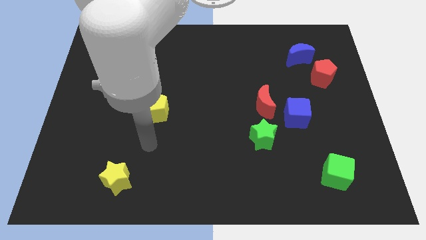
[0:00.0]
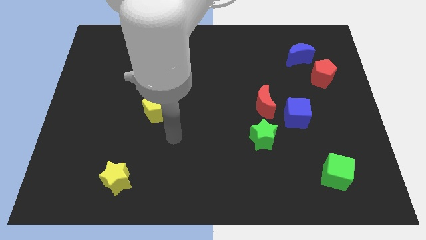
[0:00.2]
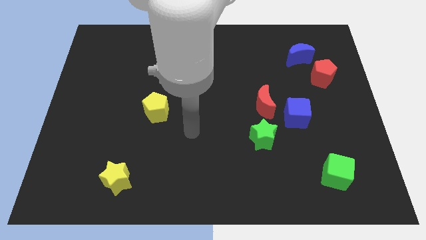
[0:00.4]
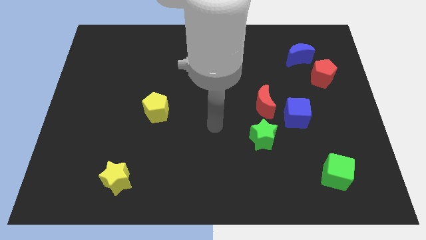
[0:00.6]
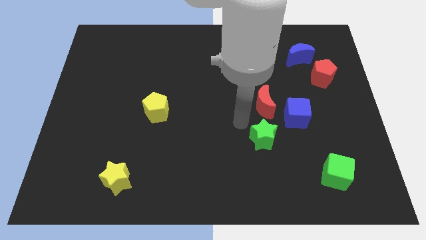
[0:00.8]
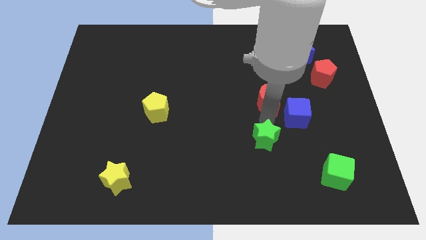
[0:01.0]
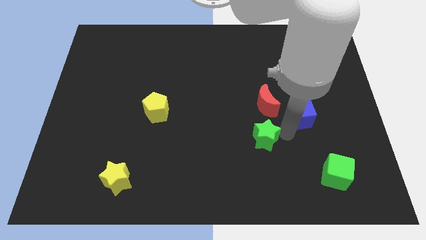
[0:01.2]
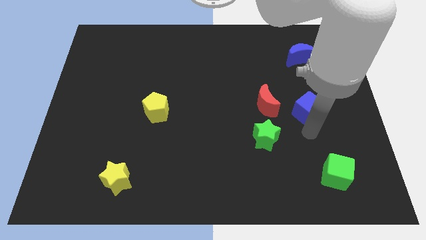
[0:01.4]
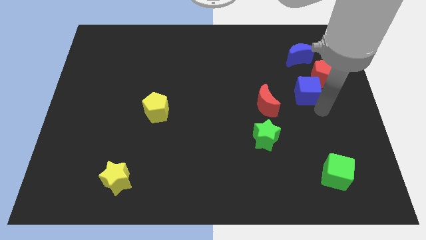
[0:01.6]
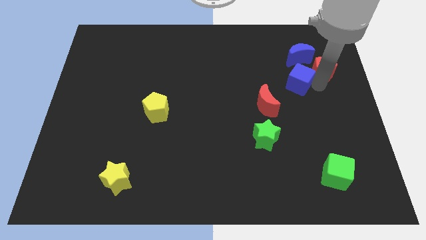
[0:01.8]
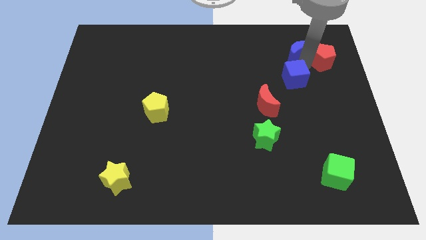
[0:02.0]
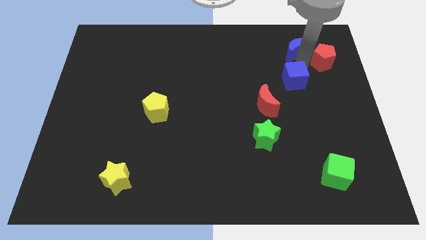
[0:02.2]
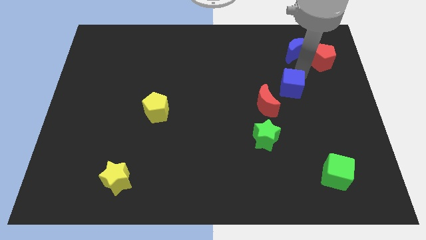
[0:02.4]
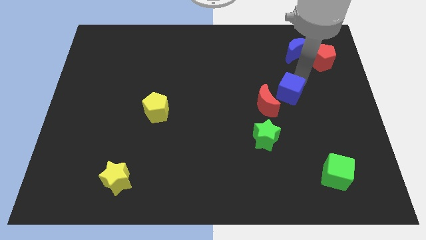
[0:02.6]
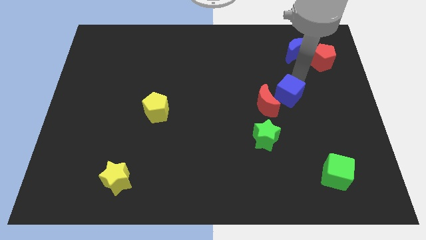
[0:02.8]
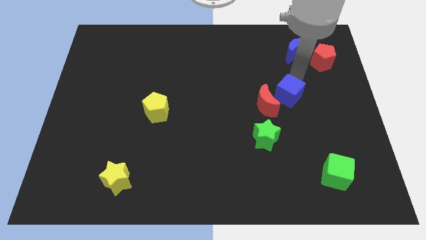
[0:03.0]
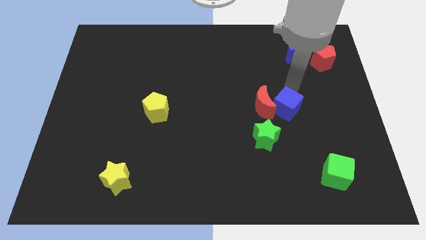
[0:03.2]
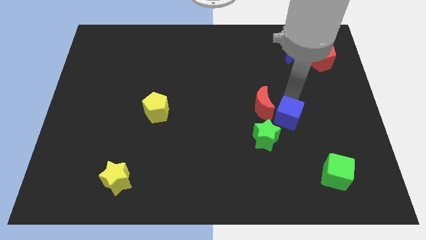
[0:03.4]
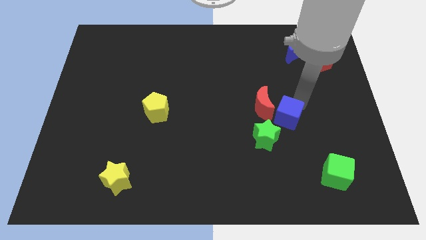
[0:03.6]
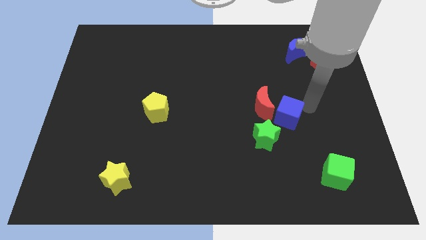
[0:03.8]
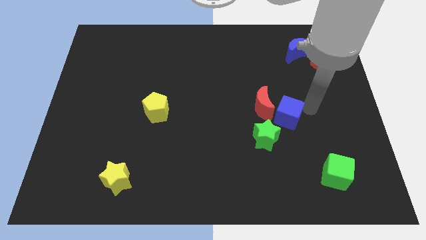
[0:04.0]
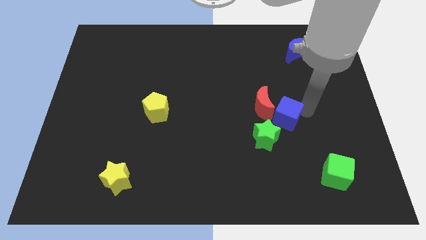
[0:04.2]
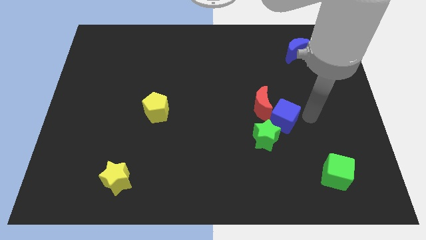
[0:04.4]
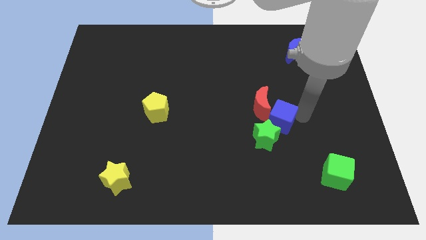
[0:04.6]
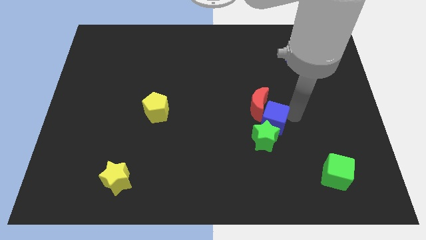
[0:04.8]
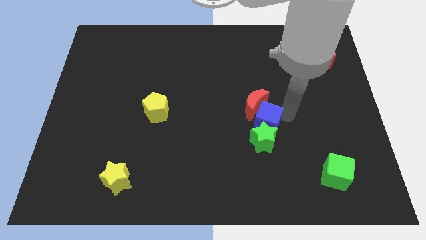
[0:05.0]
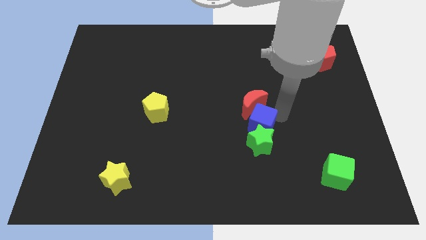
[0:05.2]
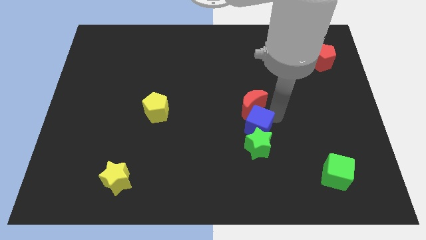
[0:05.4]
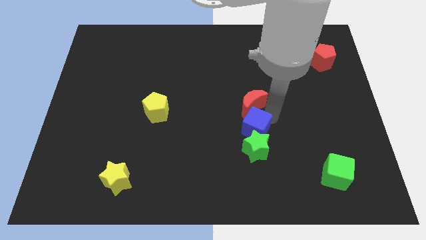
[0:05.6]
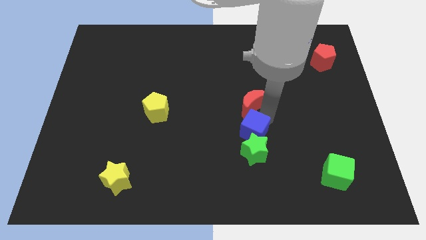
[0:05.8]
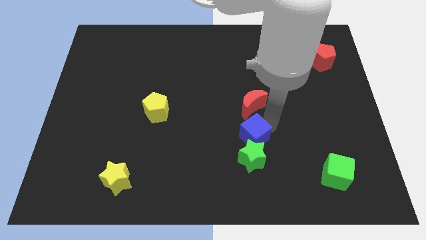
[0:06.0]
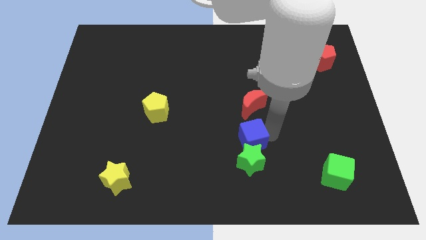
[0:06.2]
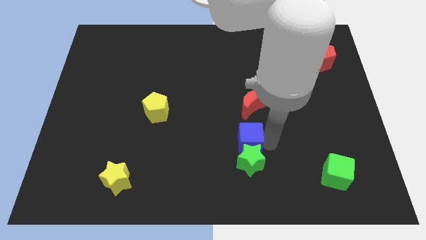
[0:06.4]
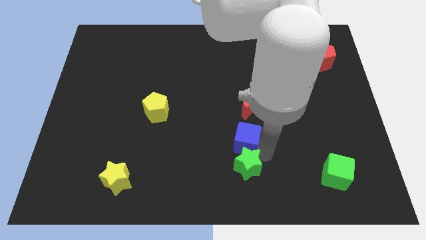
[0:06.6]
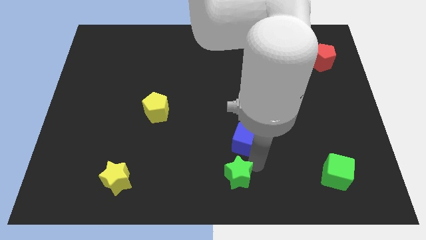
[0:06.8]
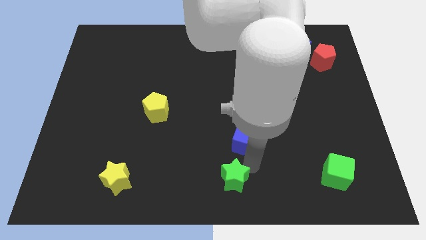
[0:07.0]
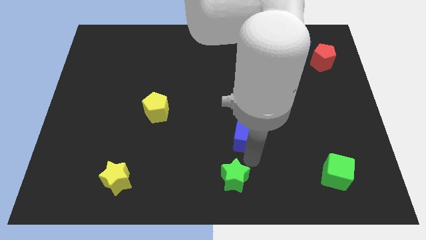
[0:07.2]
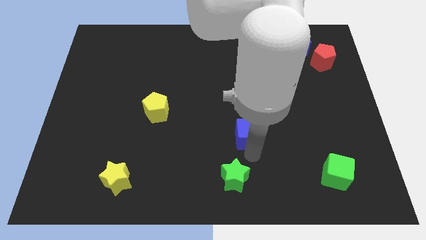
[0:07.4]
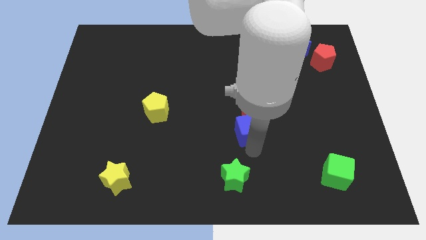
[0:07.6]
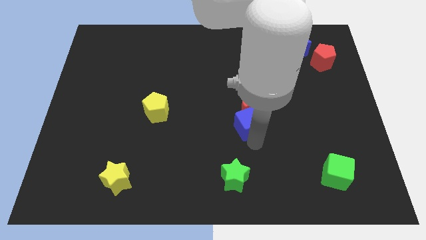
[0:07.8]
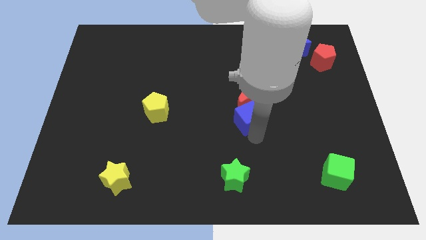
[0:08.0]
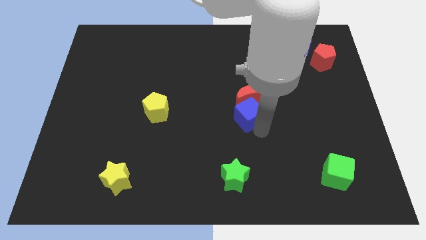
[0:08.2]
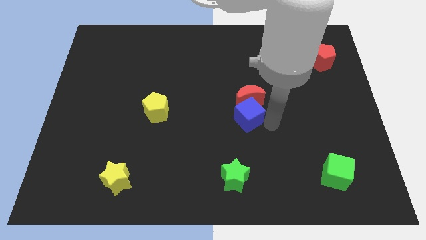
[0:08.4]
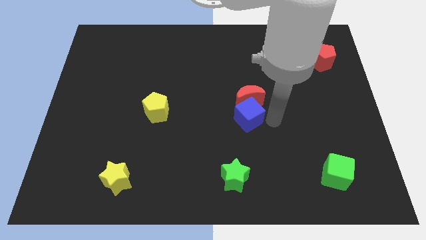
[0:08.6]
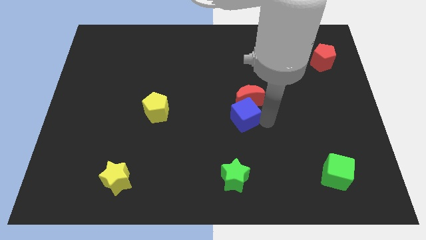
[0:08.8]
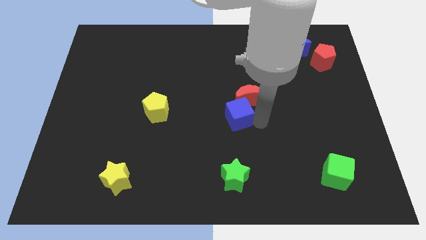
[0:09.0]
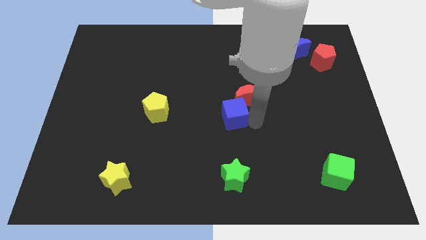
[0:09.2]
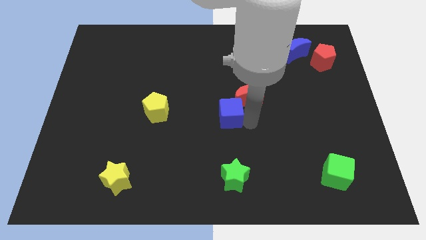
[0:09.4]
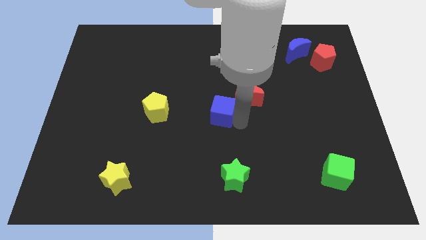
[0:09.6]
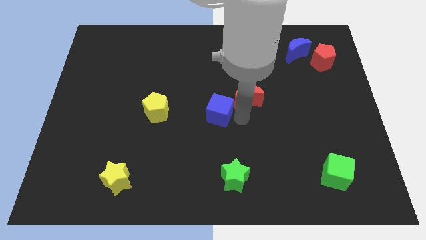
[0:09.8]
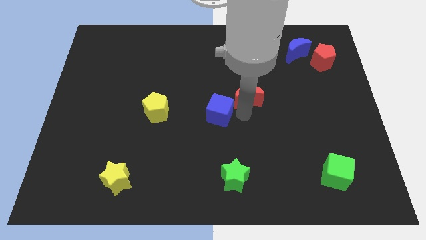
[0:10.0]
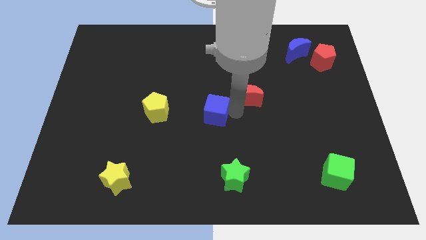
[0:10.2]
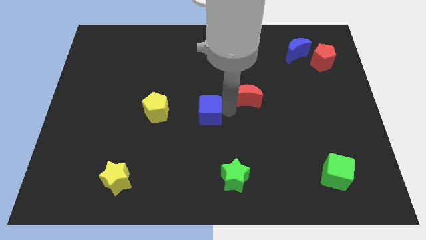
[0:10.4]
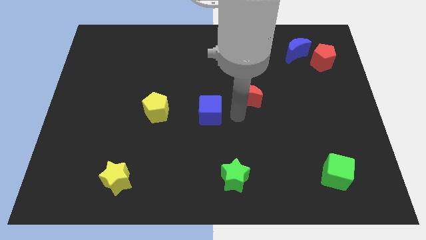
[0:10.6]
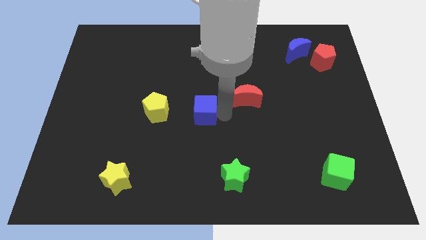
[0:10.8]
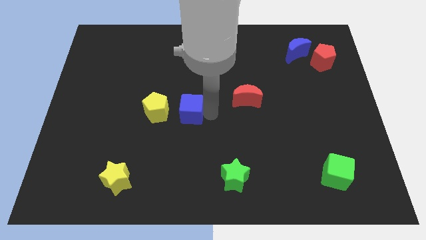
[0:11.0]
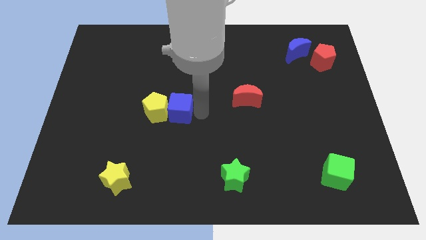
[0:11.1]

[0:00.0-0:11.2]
move the blue cube next to the yellow pentagon

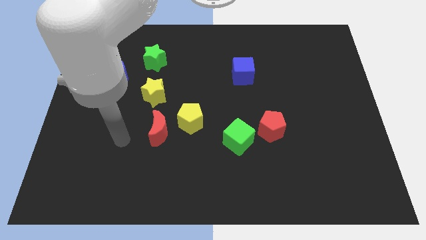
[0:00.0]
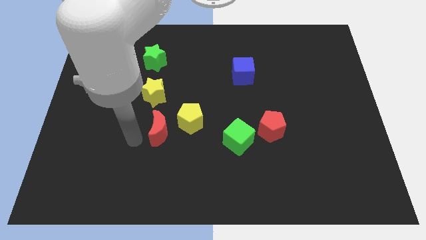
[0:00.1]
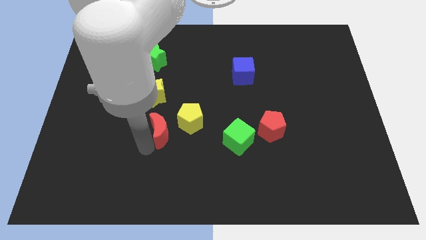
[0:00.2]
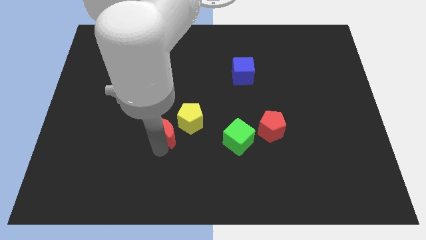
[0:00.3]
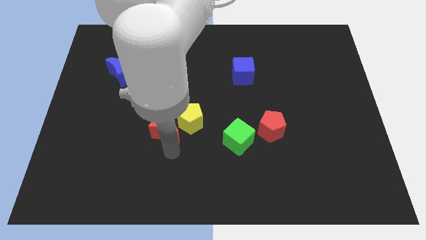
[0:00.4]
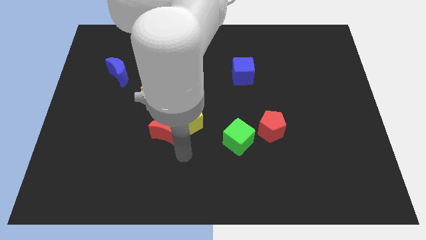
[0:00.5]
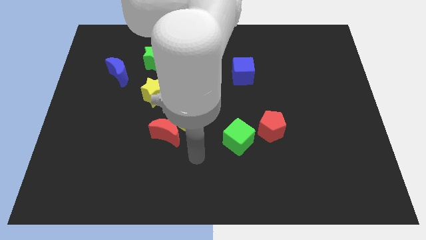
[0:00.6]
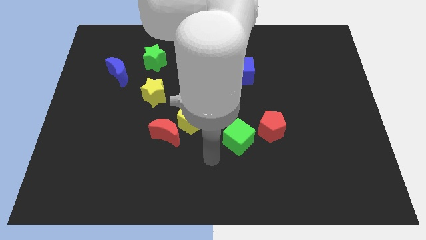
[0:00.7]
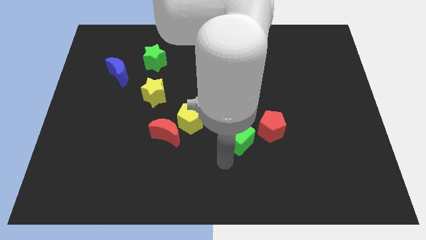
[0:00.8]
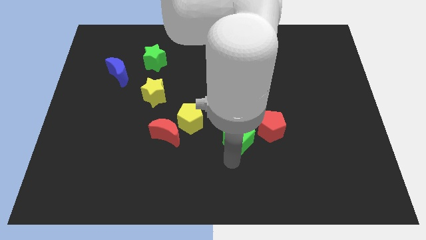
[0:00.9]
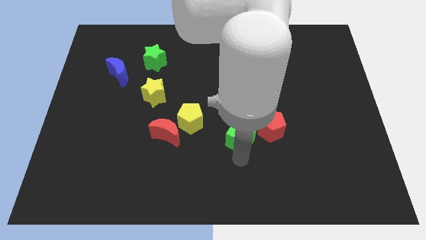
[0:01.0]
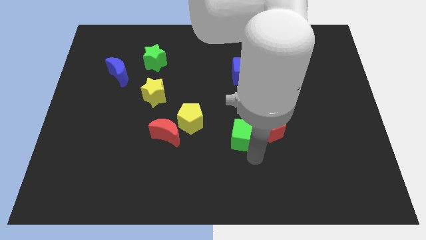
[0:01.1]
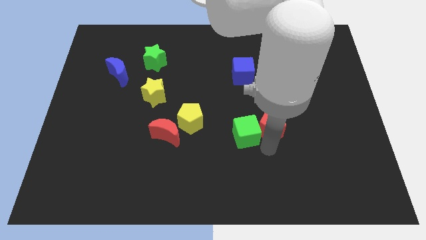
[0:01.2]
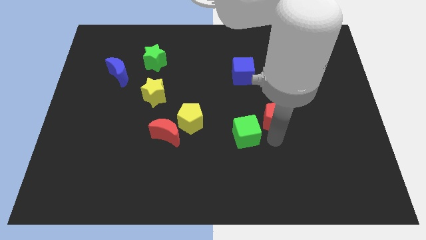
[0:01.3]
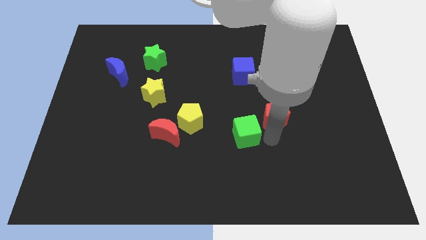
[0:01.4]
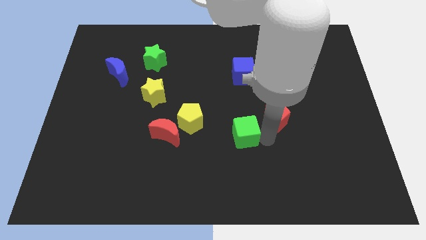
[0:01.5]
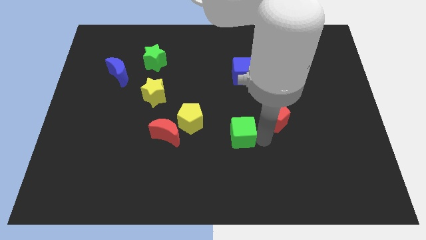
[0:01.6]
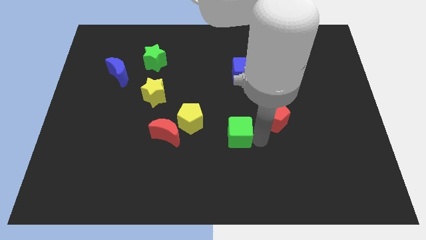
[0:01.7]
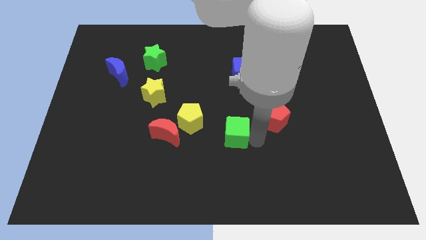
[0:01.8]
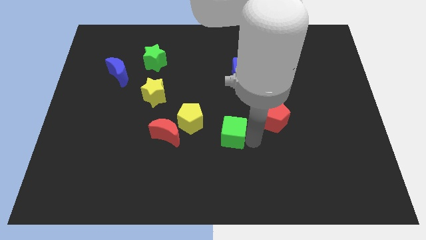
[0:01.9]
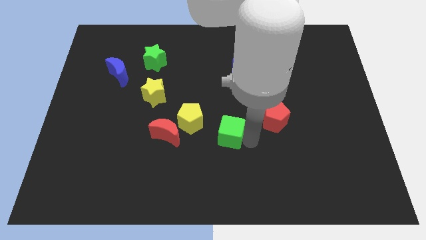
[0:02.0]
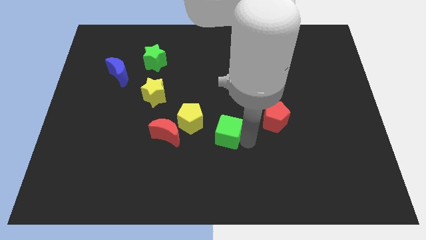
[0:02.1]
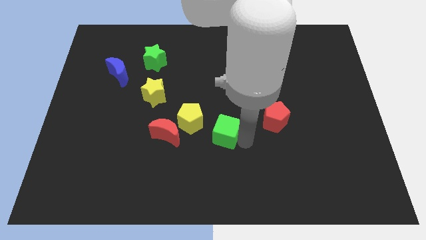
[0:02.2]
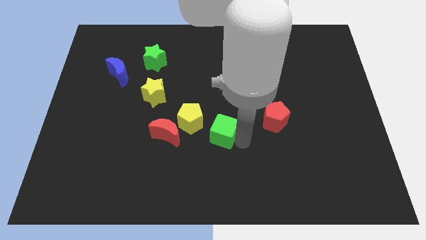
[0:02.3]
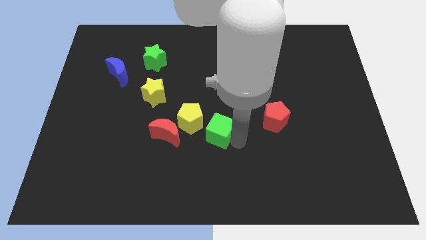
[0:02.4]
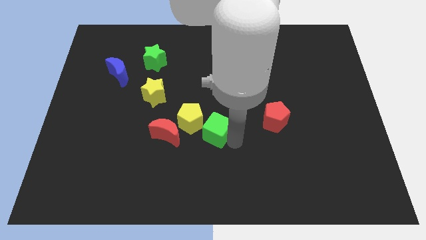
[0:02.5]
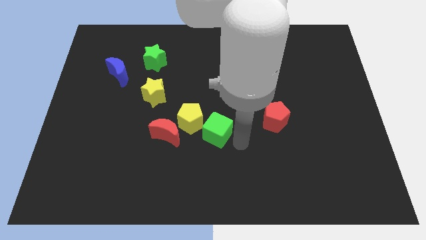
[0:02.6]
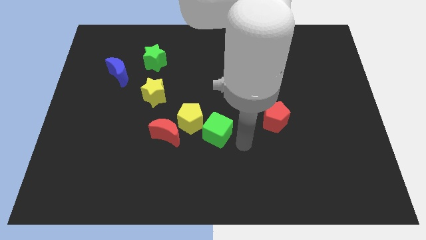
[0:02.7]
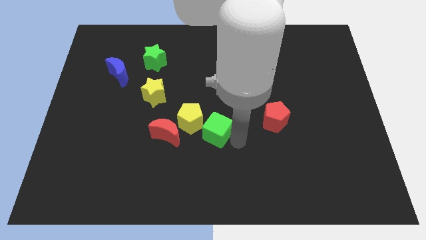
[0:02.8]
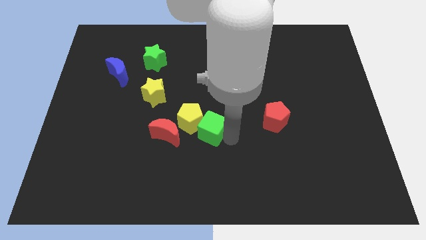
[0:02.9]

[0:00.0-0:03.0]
put the green cube to the yellow pentagon
